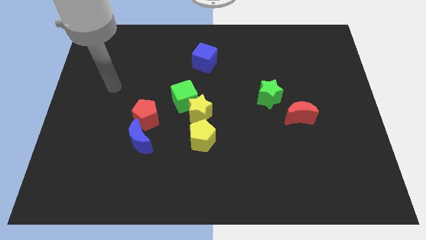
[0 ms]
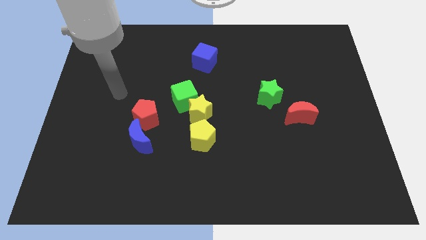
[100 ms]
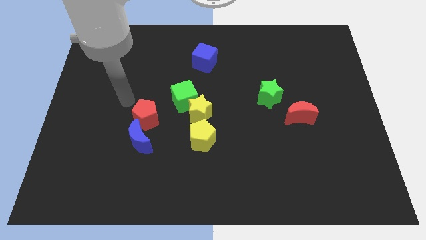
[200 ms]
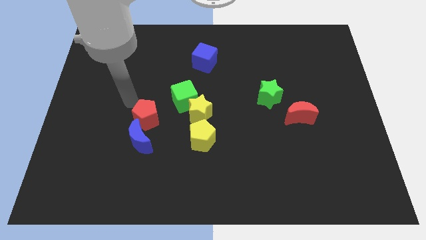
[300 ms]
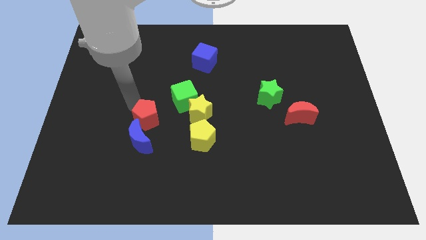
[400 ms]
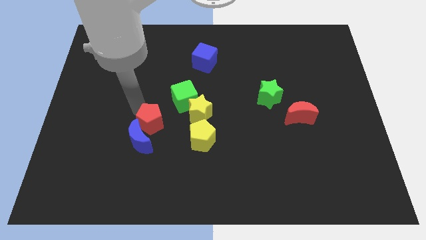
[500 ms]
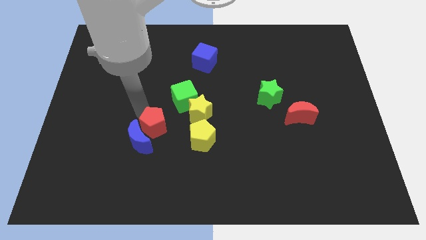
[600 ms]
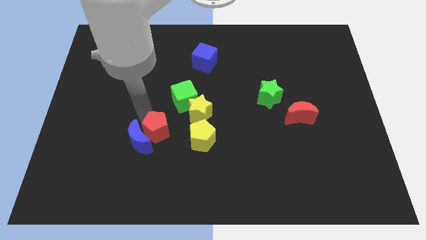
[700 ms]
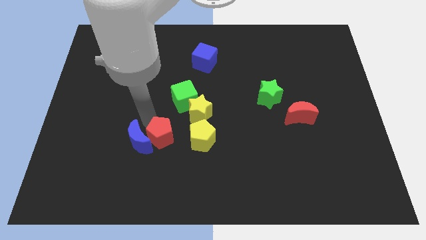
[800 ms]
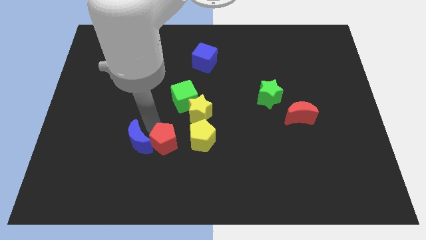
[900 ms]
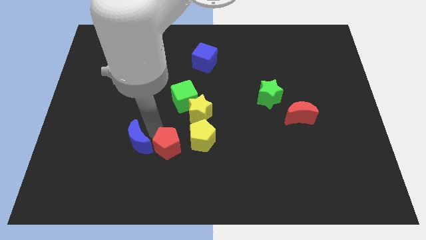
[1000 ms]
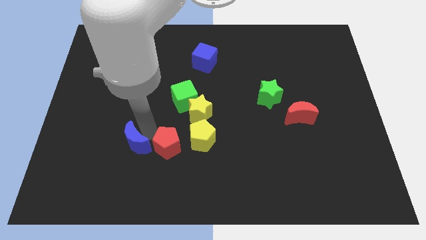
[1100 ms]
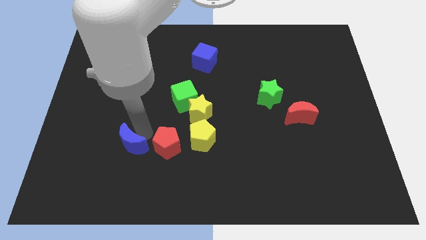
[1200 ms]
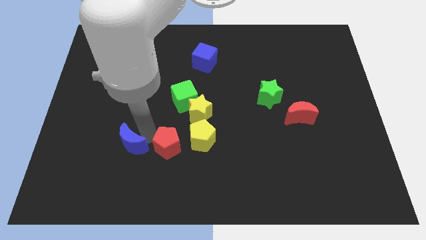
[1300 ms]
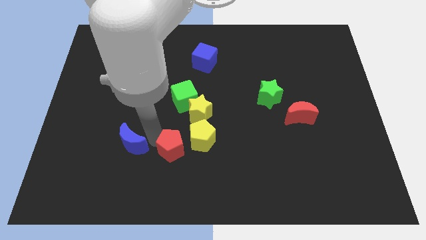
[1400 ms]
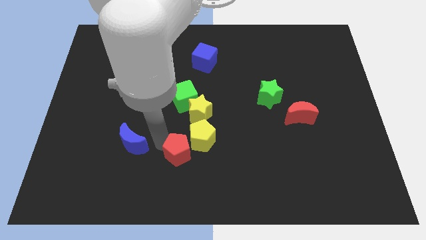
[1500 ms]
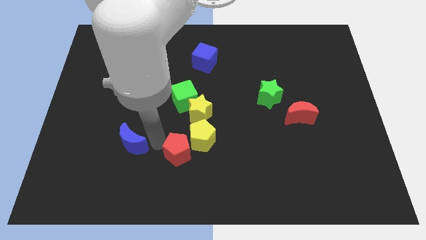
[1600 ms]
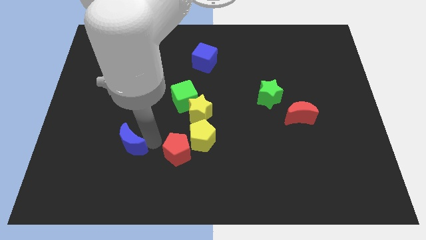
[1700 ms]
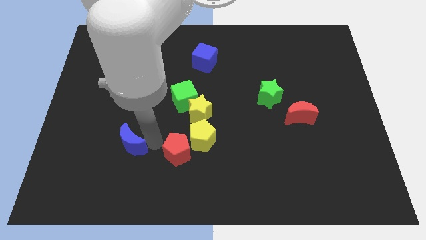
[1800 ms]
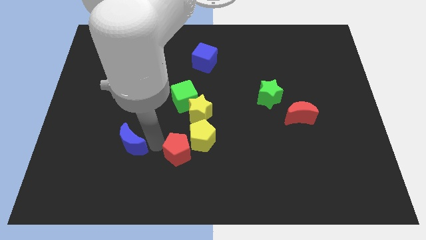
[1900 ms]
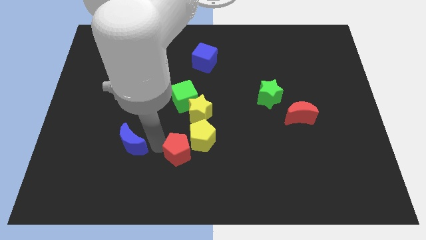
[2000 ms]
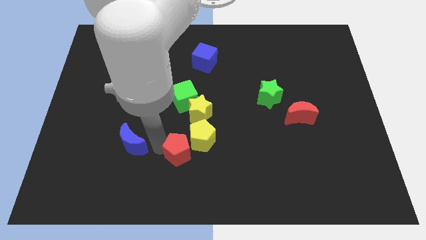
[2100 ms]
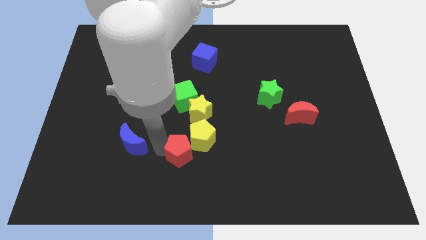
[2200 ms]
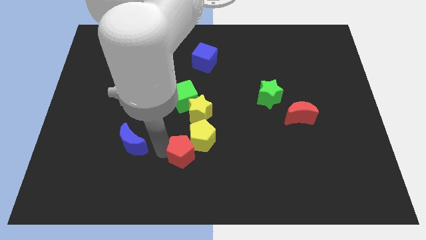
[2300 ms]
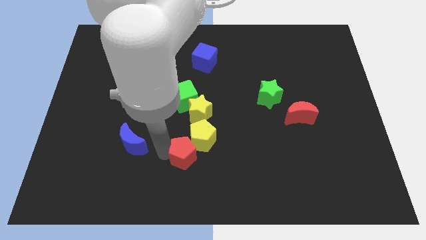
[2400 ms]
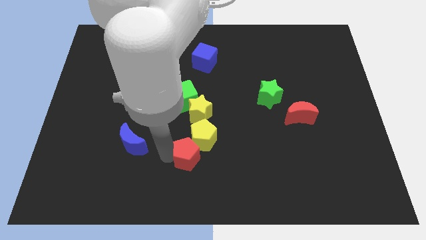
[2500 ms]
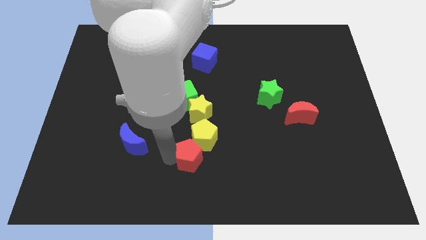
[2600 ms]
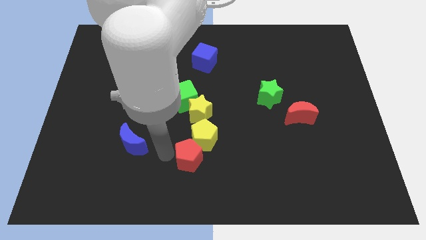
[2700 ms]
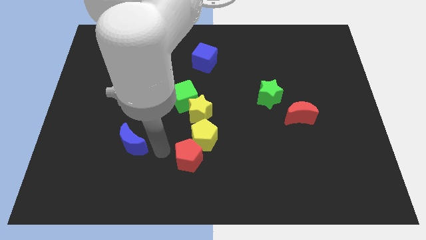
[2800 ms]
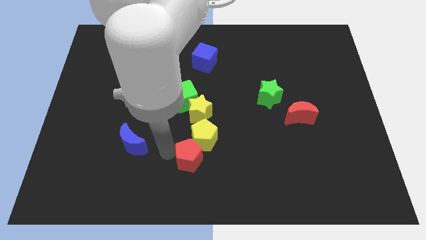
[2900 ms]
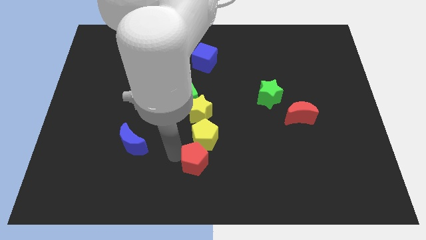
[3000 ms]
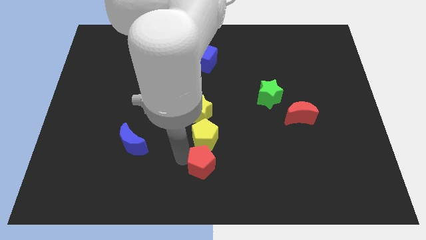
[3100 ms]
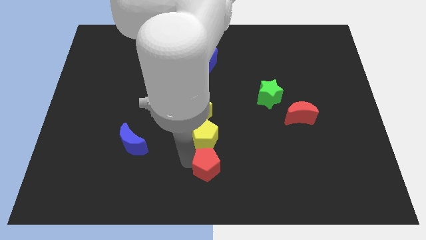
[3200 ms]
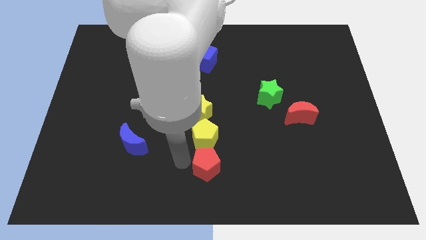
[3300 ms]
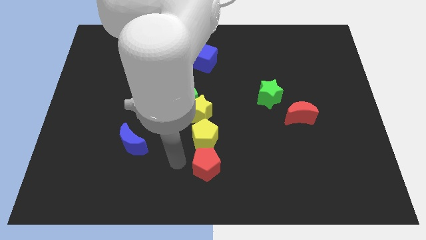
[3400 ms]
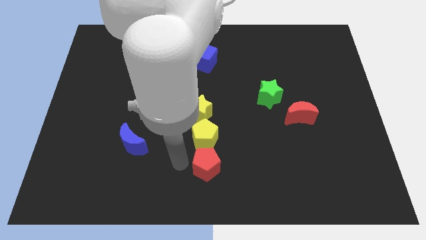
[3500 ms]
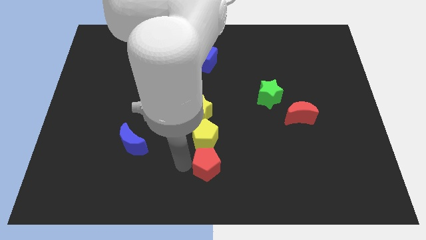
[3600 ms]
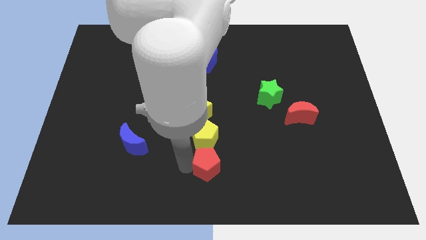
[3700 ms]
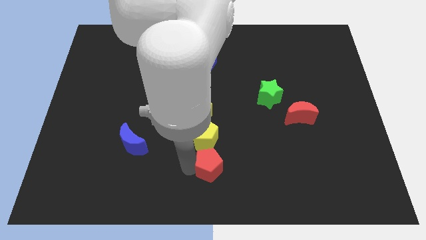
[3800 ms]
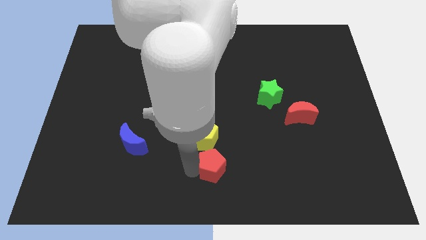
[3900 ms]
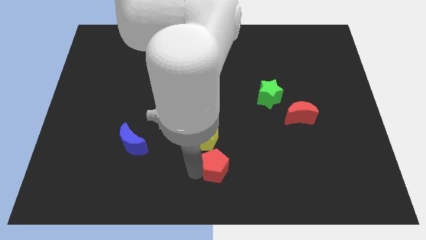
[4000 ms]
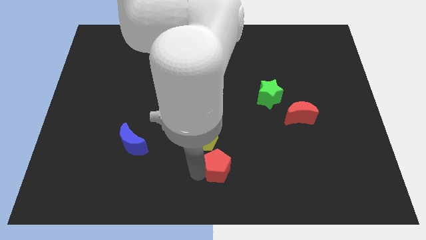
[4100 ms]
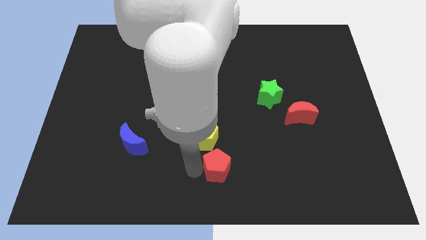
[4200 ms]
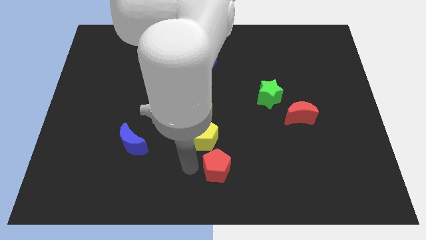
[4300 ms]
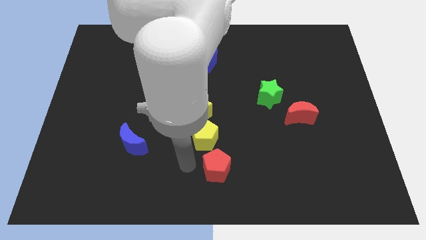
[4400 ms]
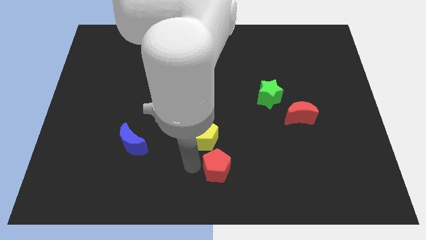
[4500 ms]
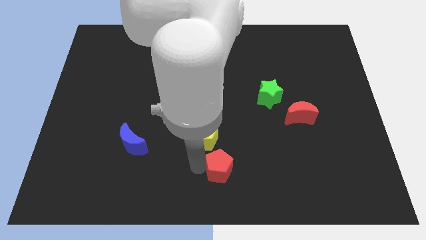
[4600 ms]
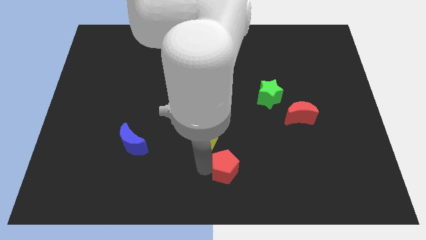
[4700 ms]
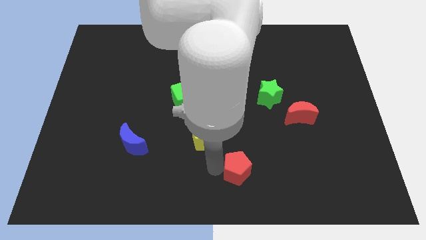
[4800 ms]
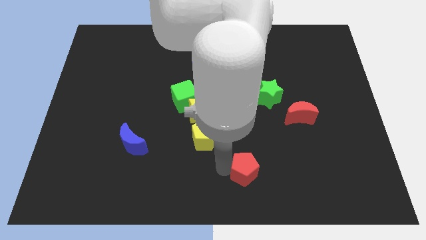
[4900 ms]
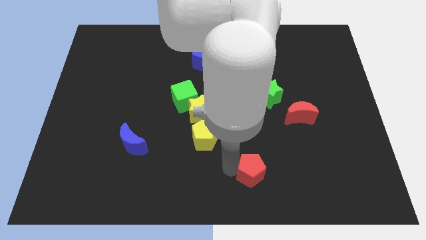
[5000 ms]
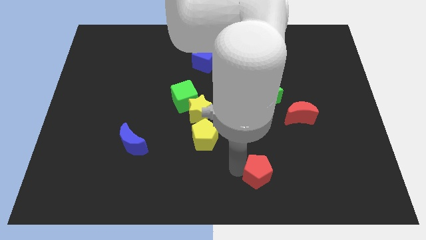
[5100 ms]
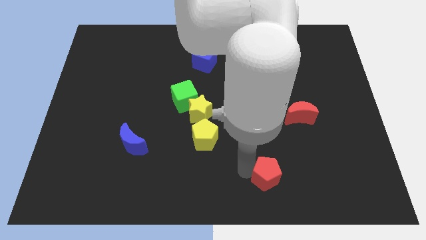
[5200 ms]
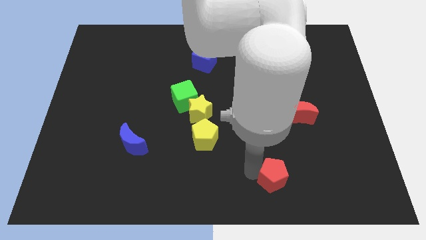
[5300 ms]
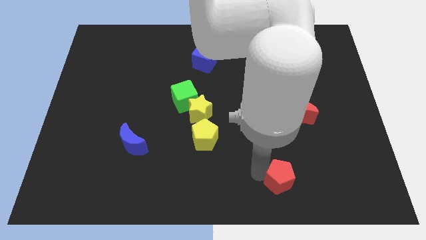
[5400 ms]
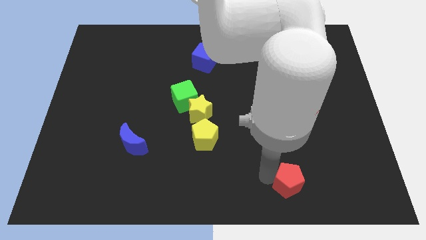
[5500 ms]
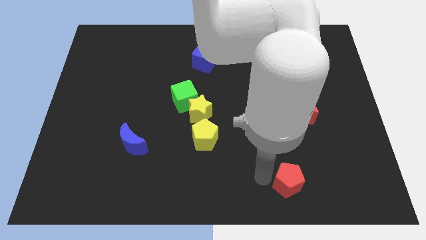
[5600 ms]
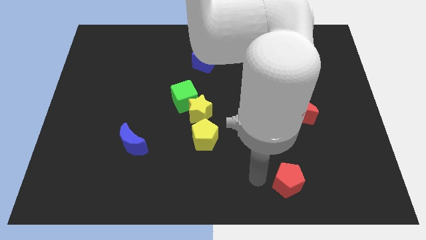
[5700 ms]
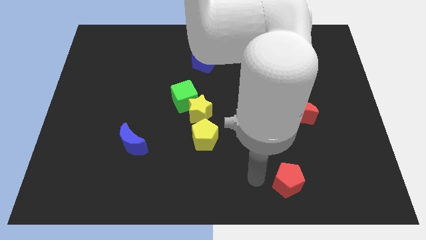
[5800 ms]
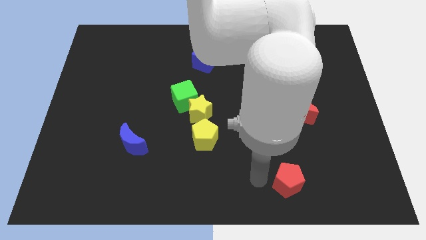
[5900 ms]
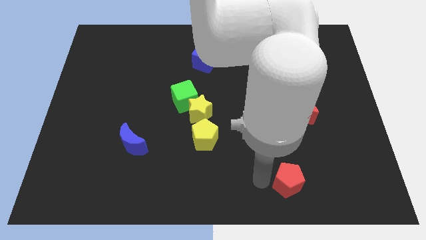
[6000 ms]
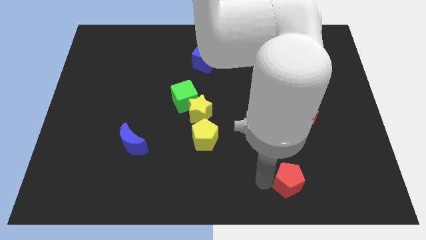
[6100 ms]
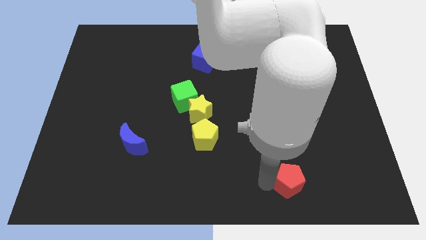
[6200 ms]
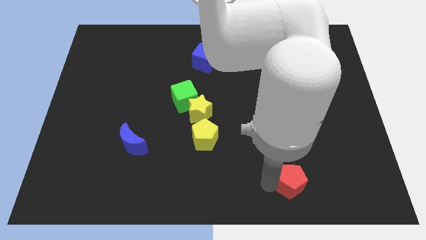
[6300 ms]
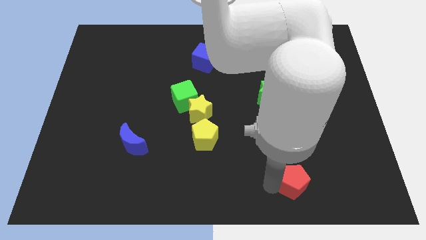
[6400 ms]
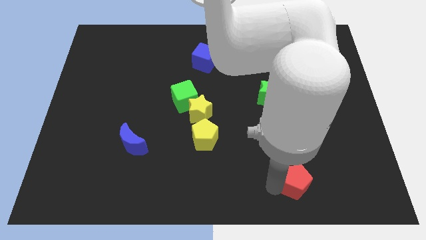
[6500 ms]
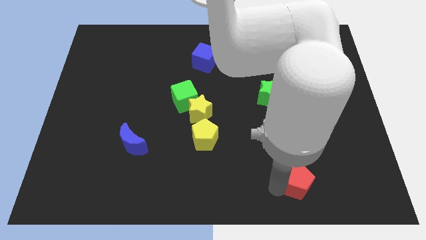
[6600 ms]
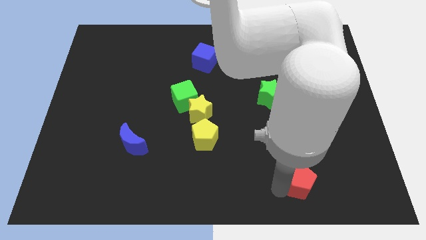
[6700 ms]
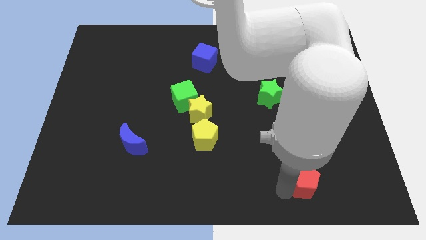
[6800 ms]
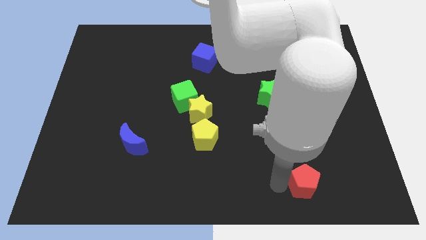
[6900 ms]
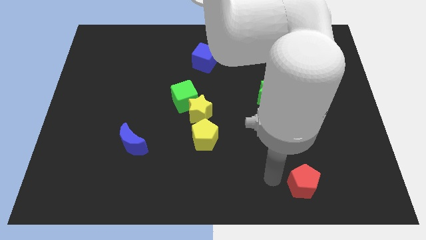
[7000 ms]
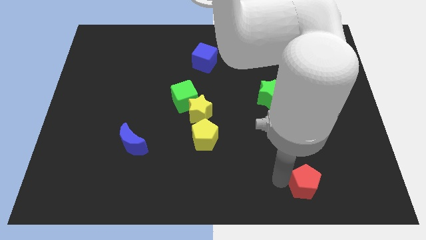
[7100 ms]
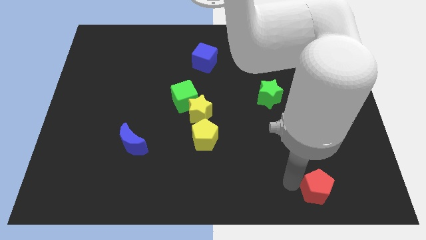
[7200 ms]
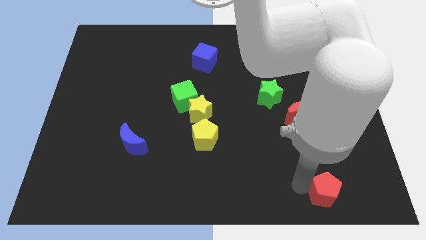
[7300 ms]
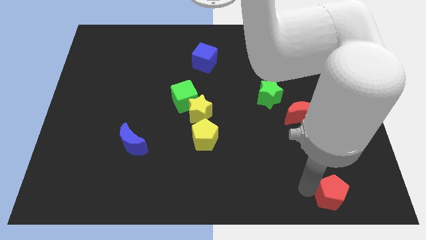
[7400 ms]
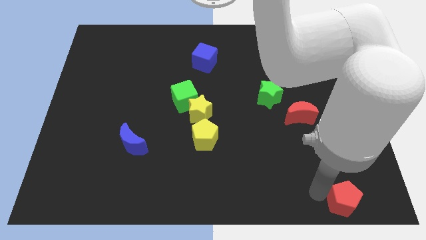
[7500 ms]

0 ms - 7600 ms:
slide the red pentagon to the lower right corner
